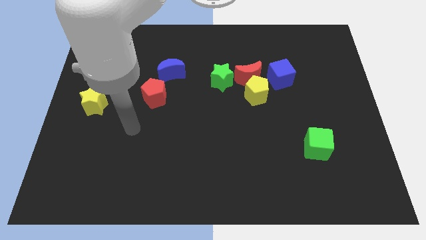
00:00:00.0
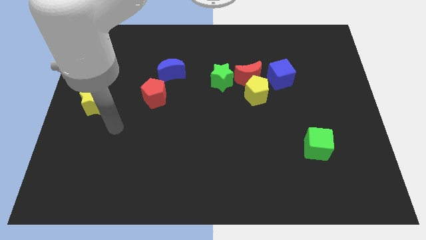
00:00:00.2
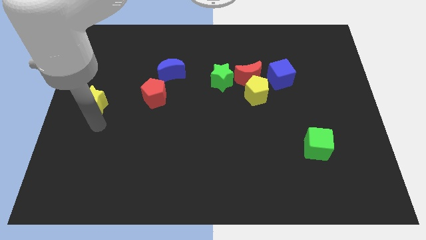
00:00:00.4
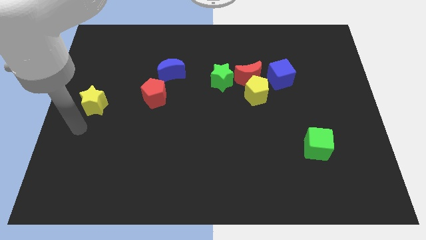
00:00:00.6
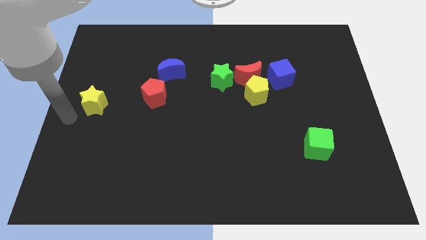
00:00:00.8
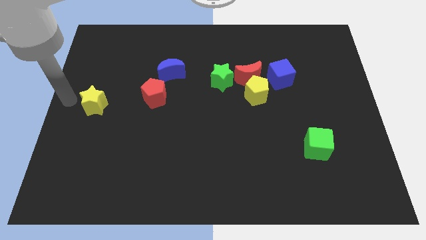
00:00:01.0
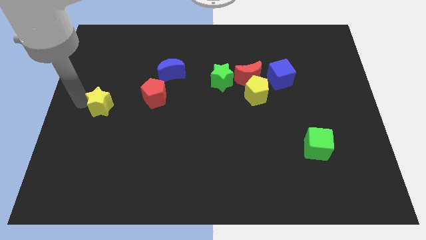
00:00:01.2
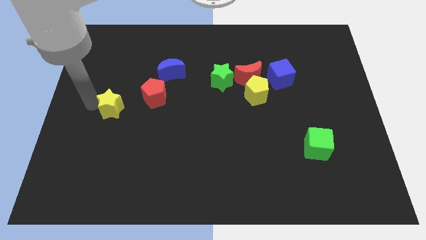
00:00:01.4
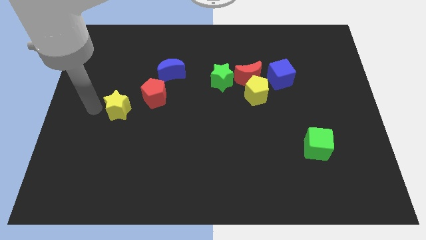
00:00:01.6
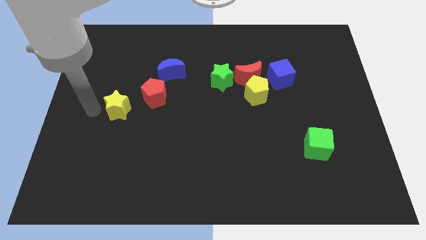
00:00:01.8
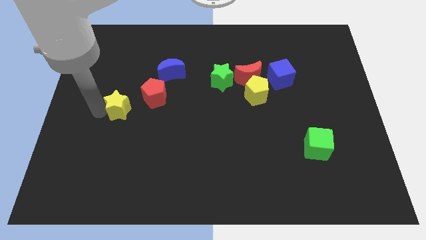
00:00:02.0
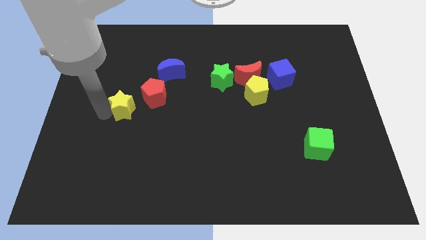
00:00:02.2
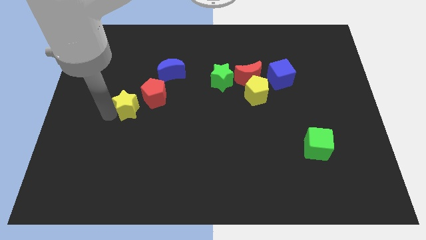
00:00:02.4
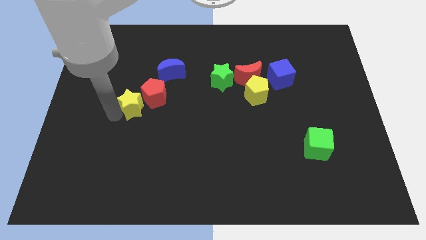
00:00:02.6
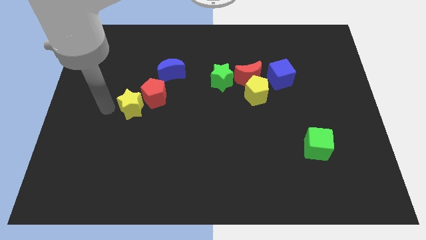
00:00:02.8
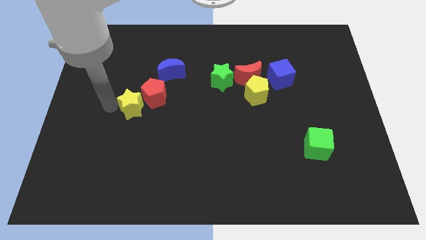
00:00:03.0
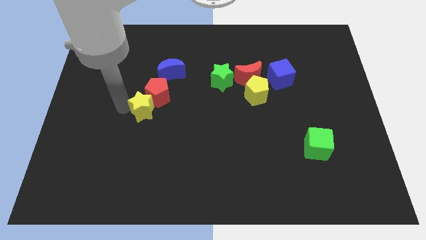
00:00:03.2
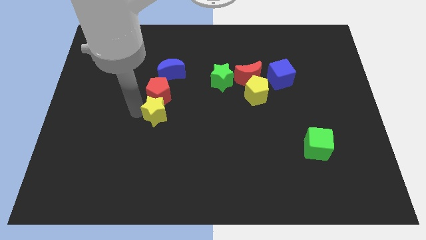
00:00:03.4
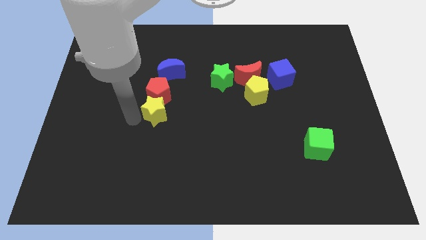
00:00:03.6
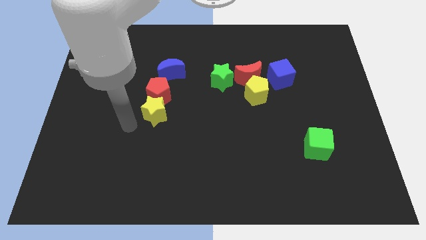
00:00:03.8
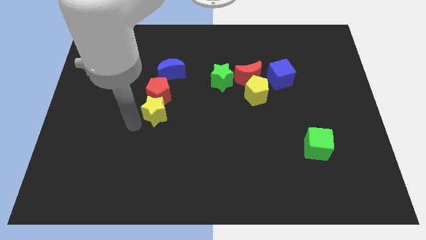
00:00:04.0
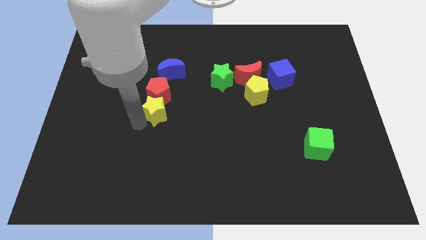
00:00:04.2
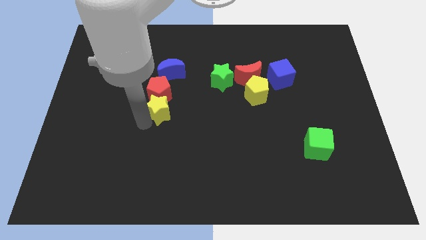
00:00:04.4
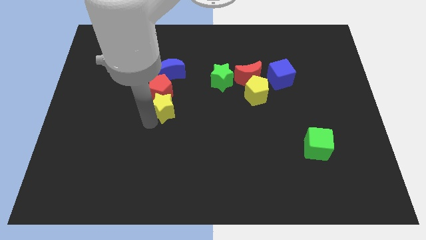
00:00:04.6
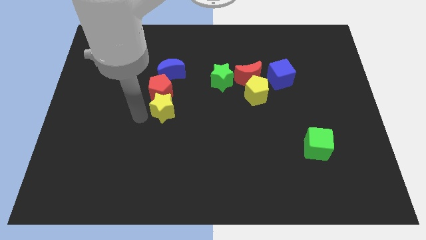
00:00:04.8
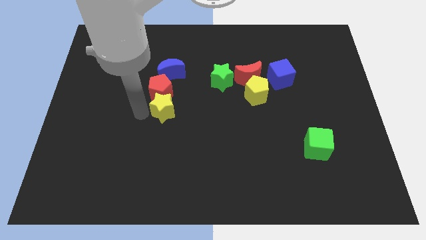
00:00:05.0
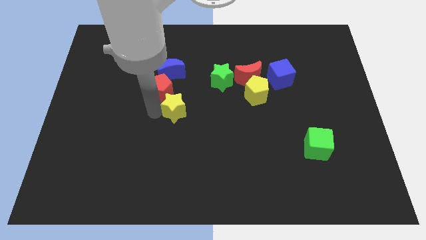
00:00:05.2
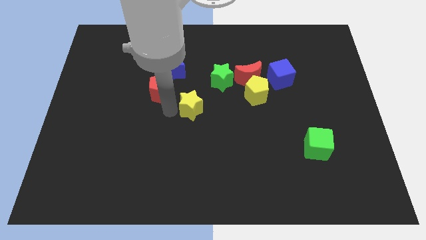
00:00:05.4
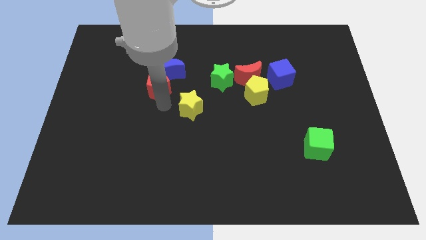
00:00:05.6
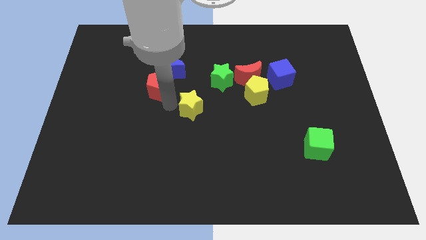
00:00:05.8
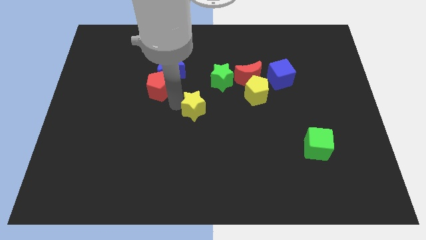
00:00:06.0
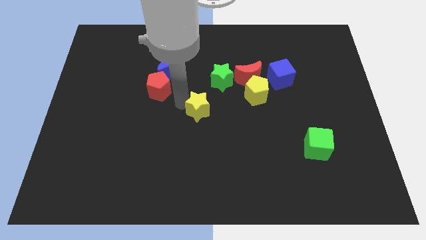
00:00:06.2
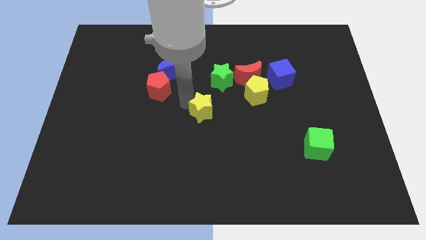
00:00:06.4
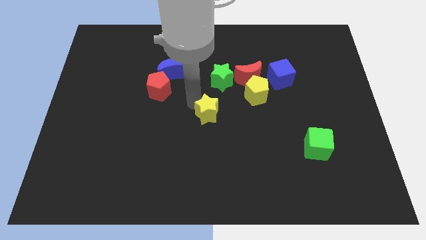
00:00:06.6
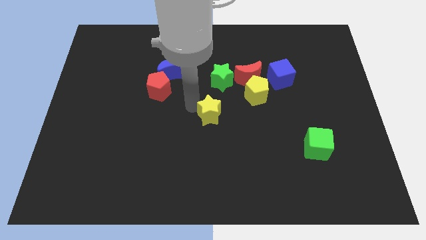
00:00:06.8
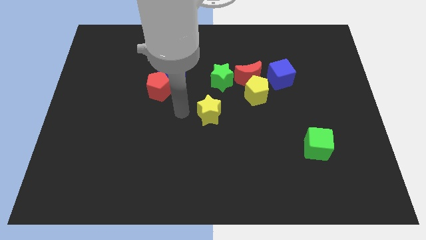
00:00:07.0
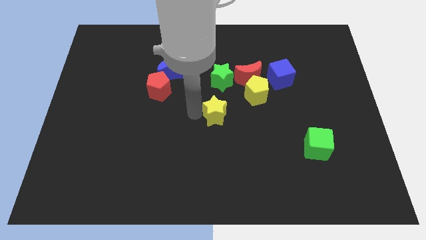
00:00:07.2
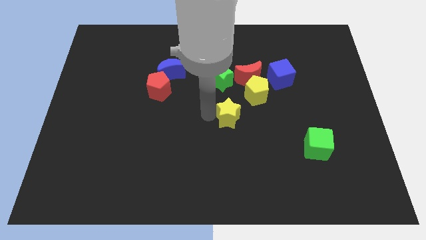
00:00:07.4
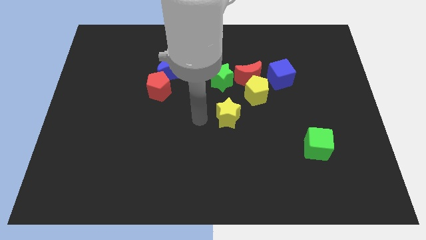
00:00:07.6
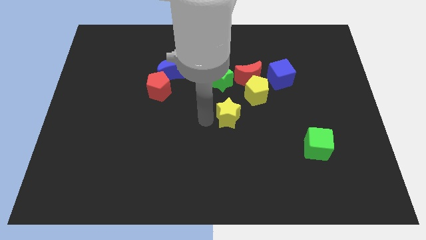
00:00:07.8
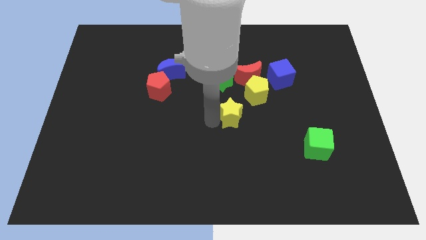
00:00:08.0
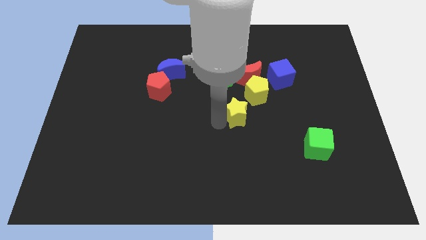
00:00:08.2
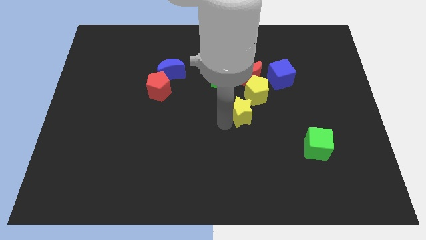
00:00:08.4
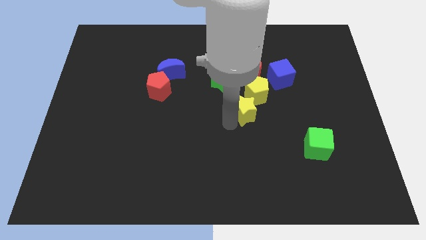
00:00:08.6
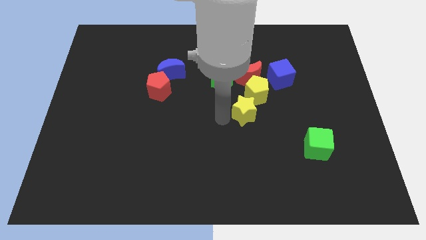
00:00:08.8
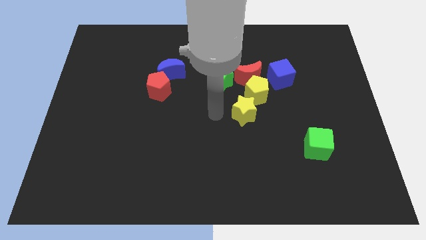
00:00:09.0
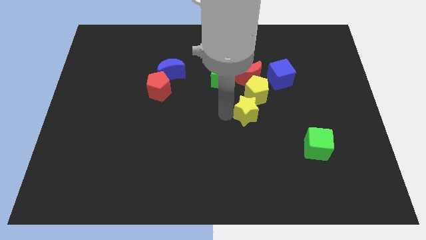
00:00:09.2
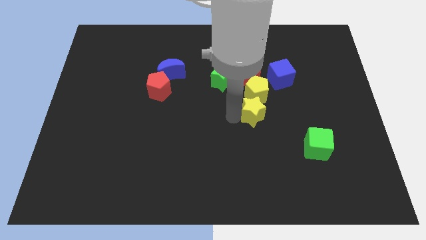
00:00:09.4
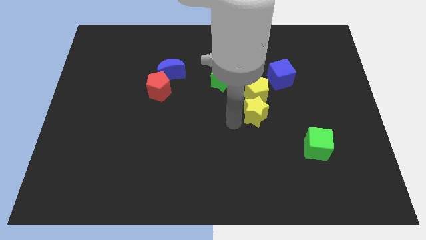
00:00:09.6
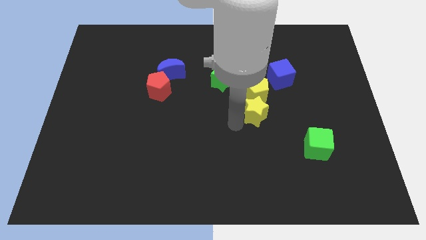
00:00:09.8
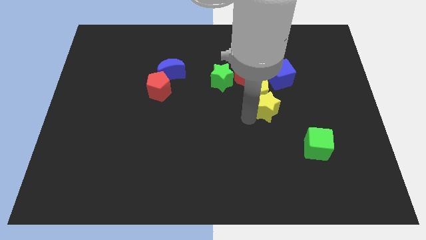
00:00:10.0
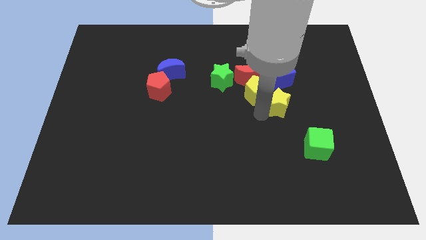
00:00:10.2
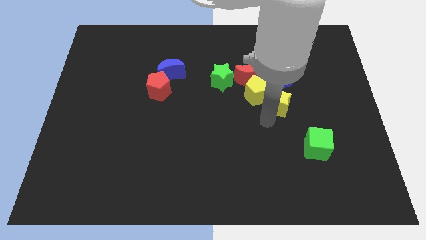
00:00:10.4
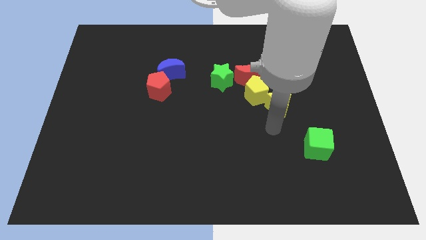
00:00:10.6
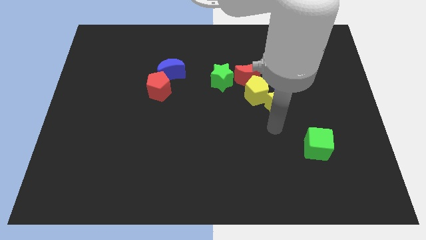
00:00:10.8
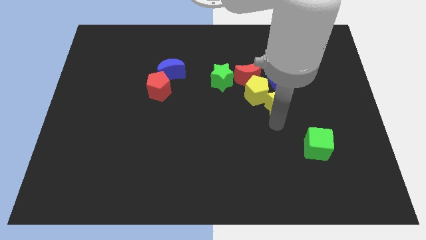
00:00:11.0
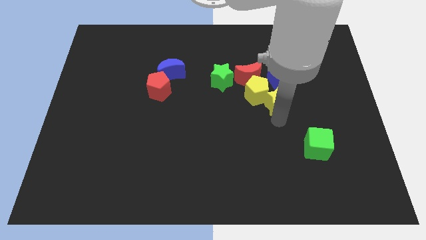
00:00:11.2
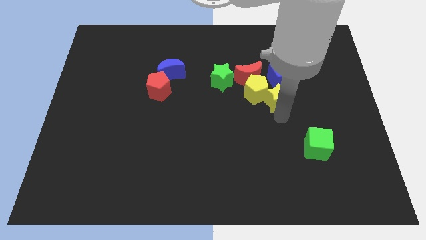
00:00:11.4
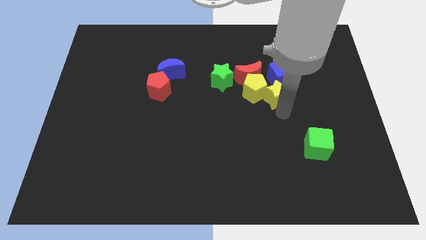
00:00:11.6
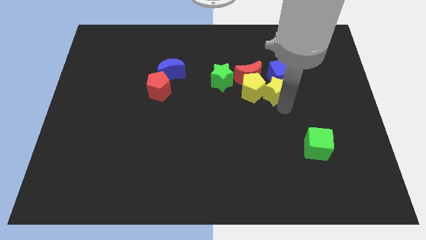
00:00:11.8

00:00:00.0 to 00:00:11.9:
push the yellow star towards the blue cube

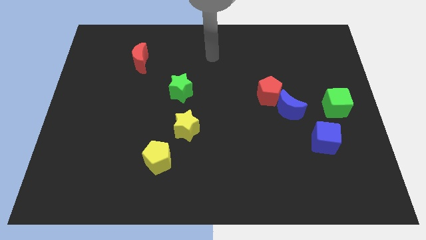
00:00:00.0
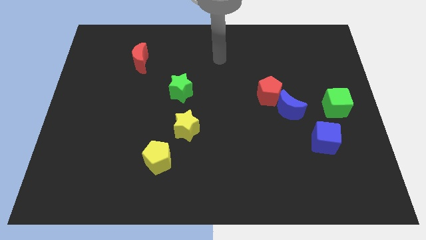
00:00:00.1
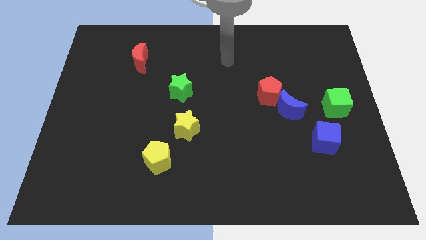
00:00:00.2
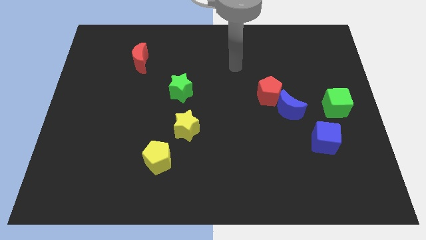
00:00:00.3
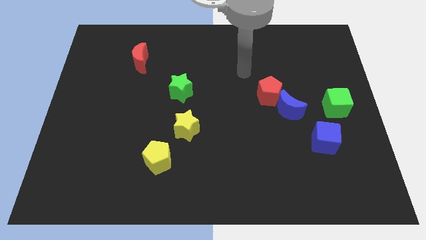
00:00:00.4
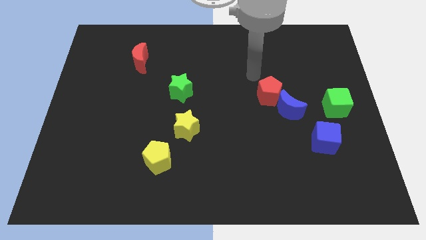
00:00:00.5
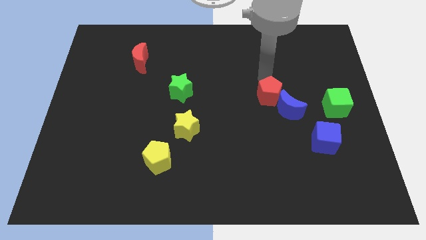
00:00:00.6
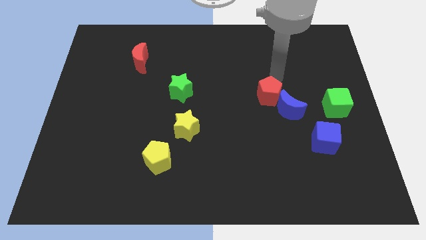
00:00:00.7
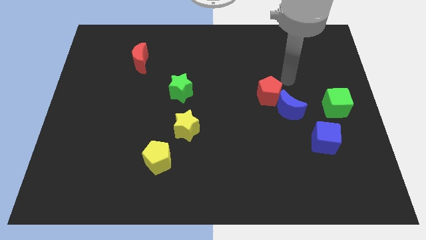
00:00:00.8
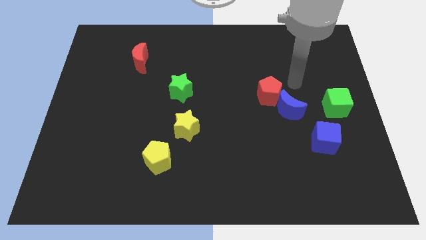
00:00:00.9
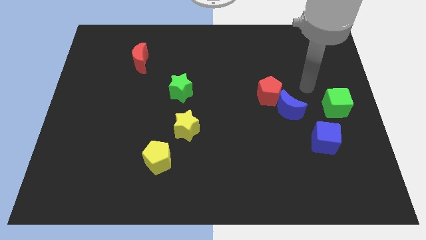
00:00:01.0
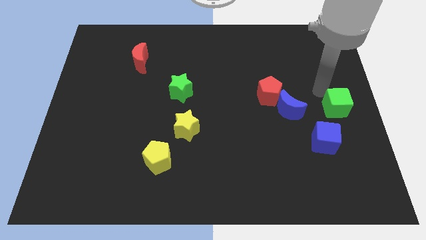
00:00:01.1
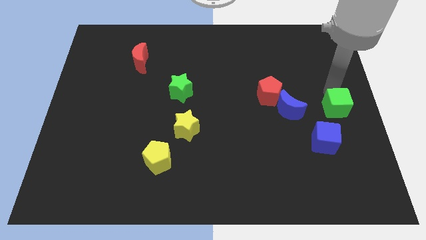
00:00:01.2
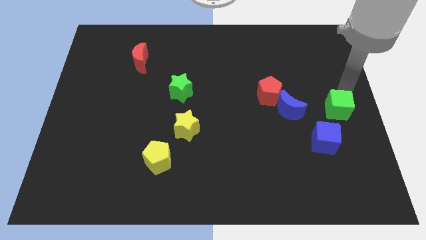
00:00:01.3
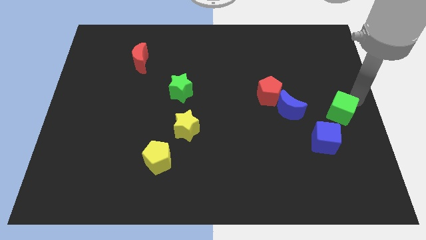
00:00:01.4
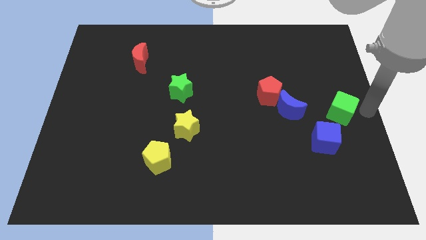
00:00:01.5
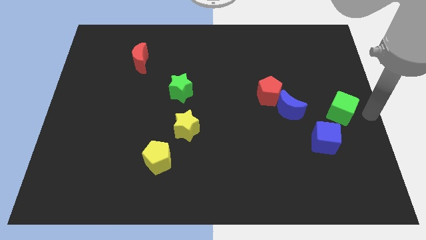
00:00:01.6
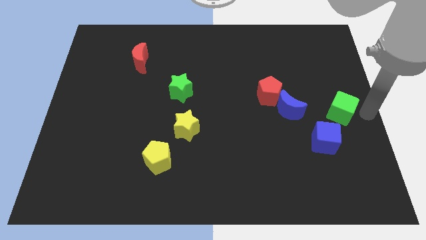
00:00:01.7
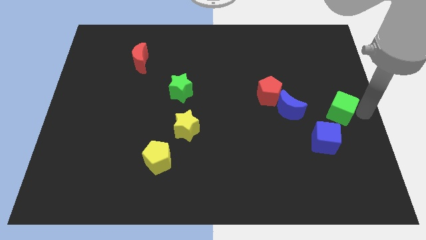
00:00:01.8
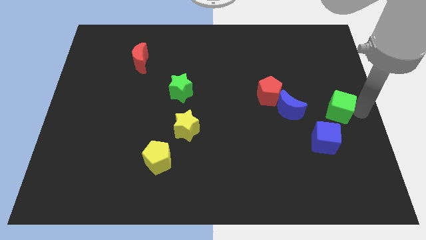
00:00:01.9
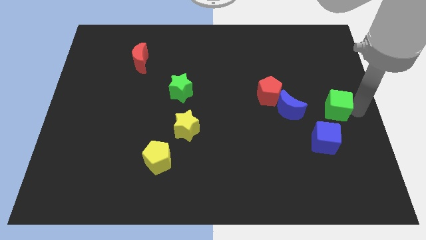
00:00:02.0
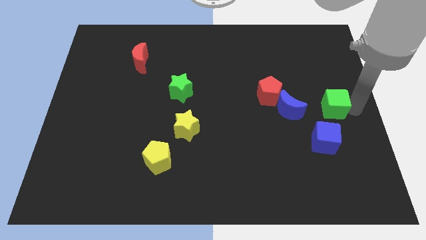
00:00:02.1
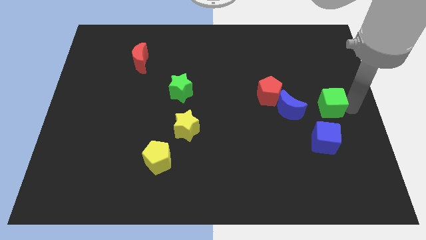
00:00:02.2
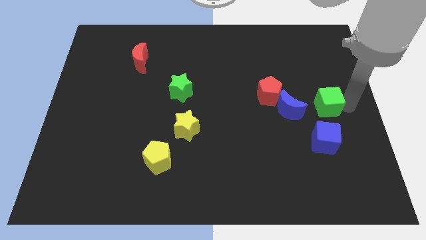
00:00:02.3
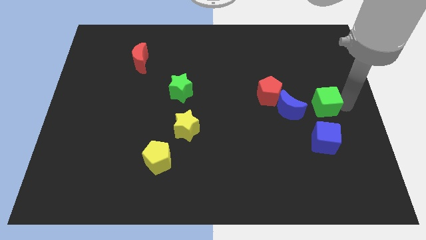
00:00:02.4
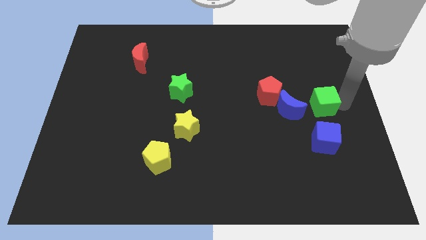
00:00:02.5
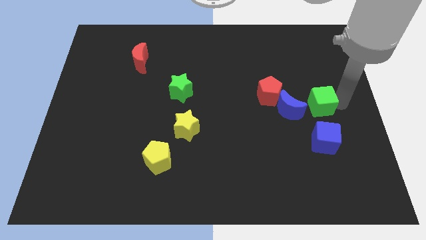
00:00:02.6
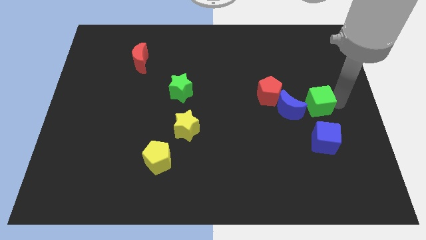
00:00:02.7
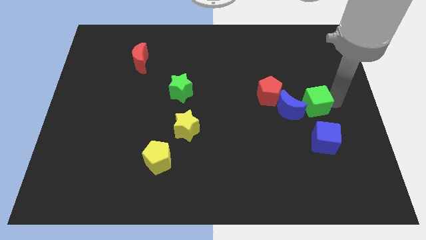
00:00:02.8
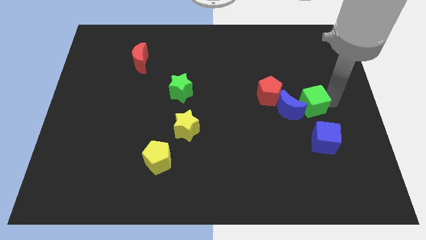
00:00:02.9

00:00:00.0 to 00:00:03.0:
put the green cube to the blue moon
